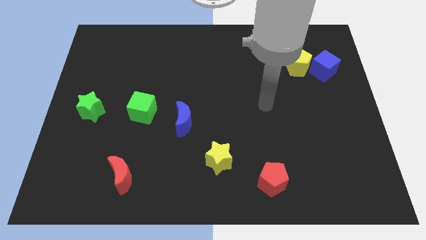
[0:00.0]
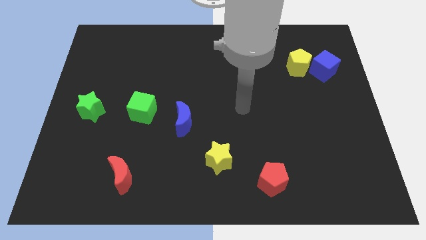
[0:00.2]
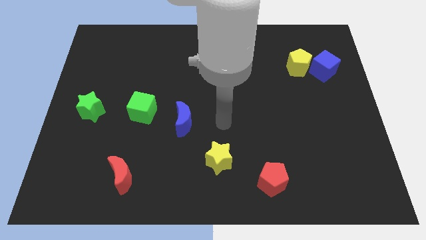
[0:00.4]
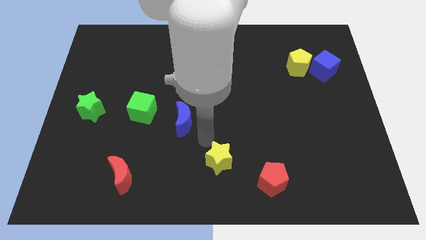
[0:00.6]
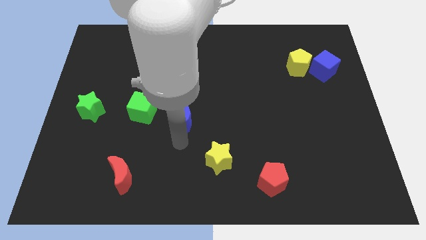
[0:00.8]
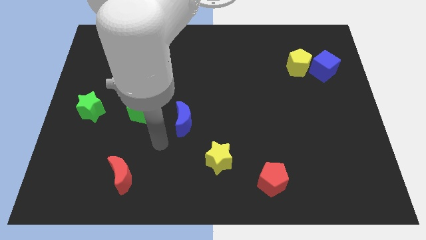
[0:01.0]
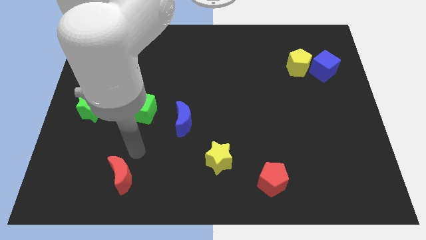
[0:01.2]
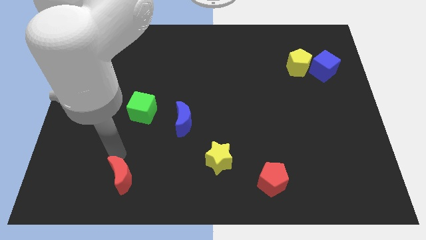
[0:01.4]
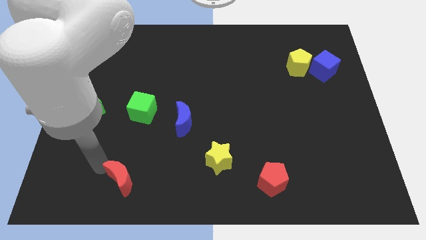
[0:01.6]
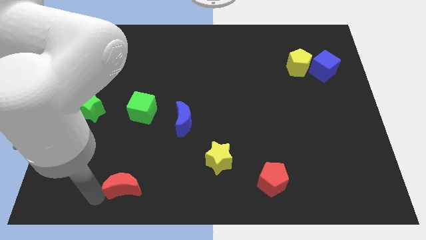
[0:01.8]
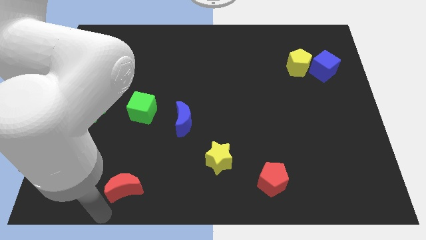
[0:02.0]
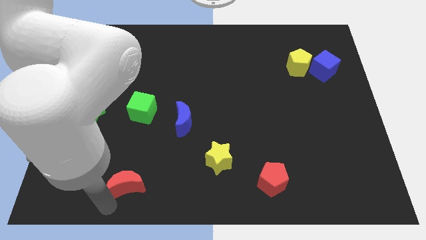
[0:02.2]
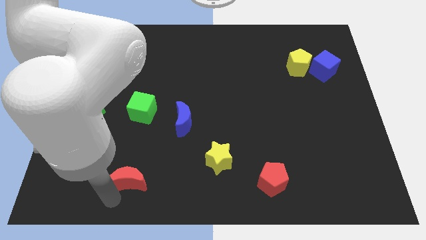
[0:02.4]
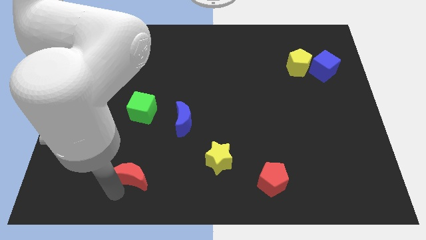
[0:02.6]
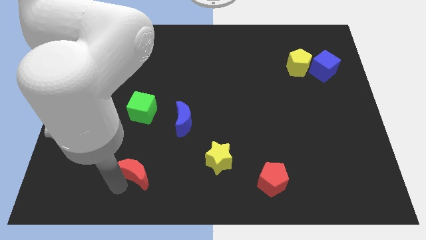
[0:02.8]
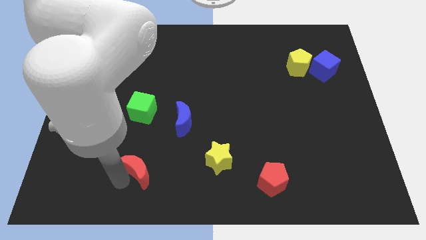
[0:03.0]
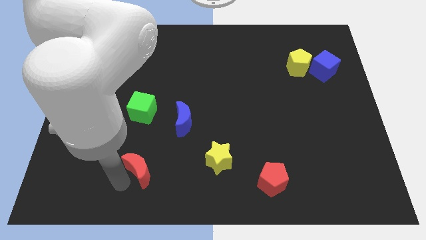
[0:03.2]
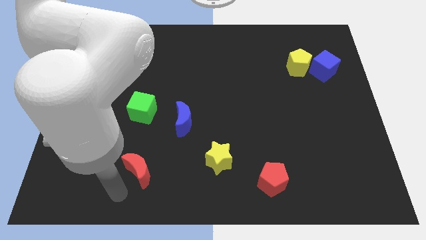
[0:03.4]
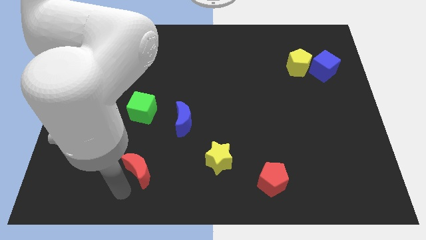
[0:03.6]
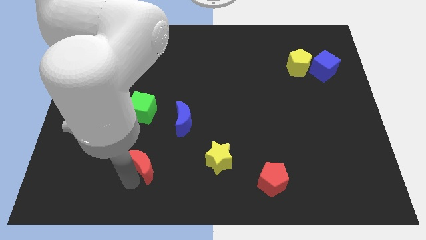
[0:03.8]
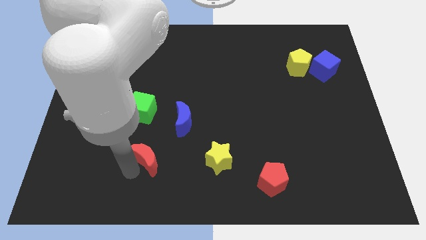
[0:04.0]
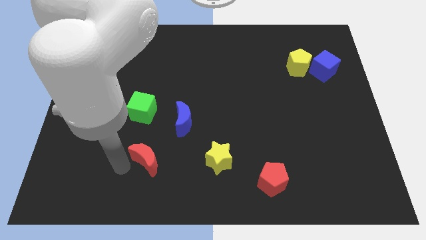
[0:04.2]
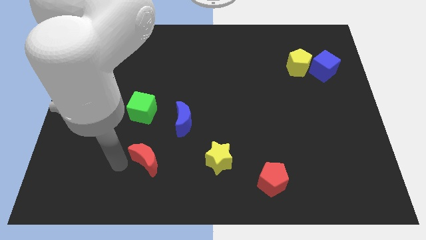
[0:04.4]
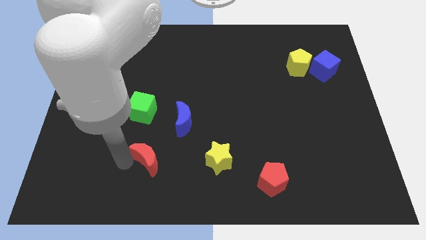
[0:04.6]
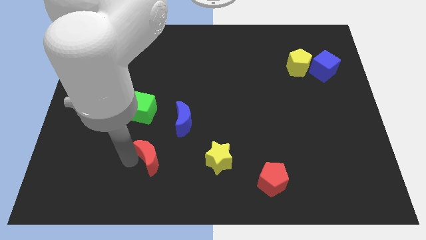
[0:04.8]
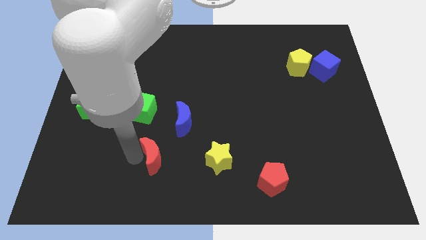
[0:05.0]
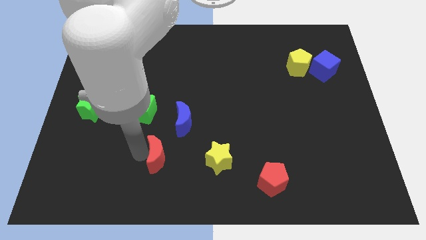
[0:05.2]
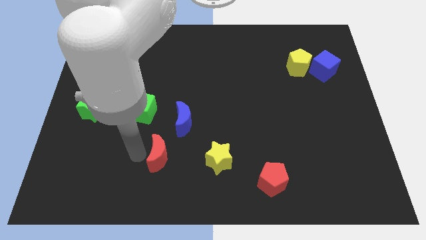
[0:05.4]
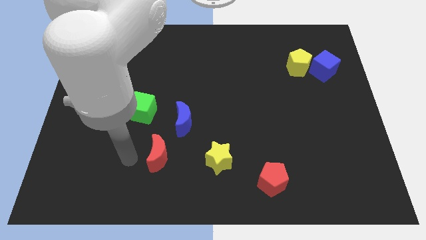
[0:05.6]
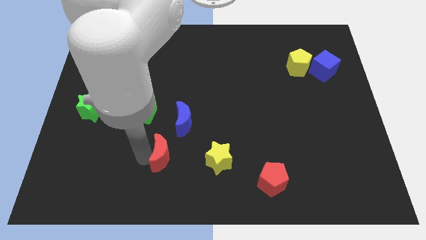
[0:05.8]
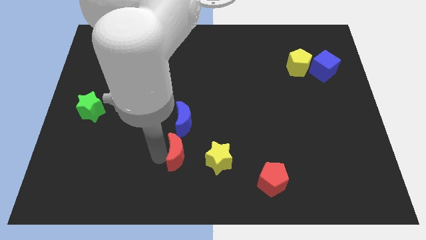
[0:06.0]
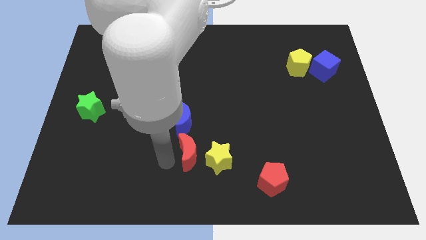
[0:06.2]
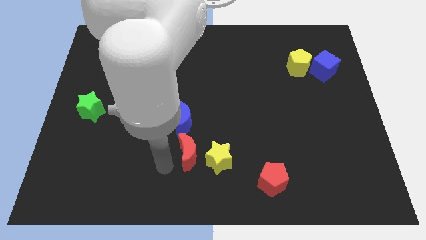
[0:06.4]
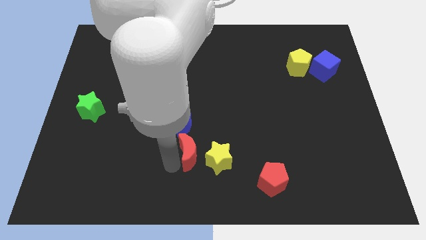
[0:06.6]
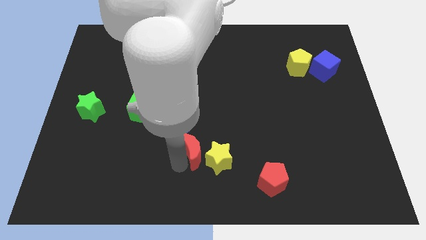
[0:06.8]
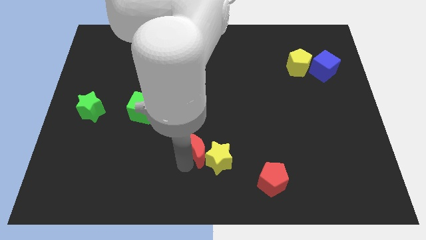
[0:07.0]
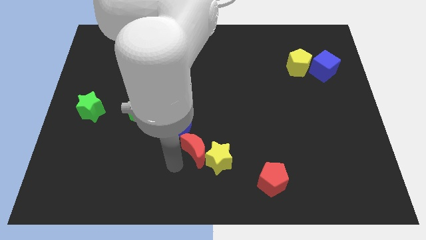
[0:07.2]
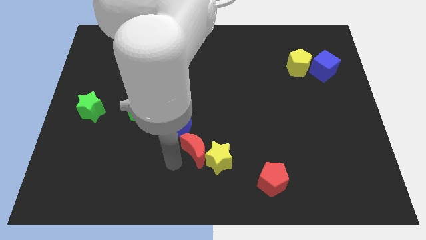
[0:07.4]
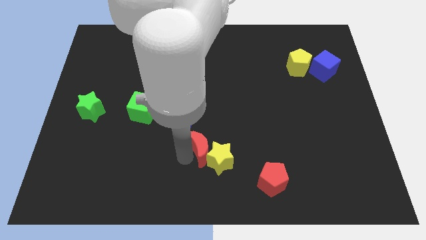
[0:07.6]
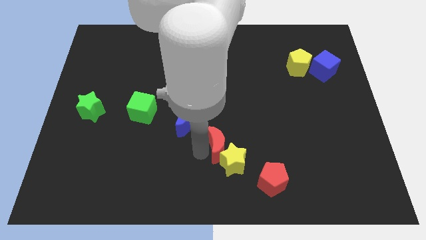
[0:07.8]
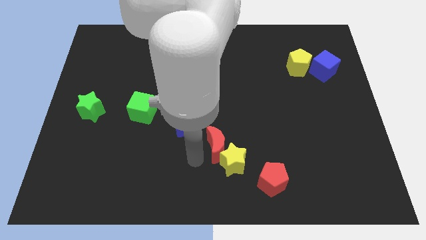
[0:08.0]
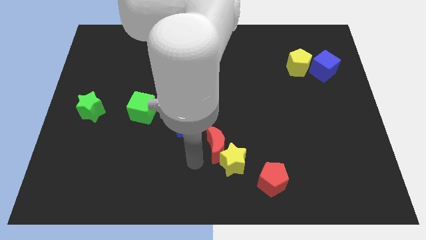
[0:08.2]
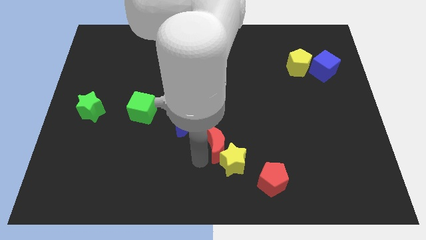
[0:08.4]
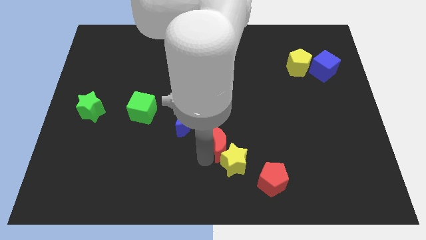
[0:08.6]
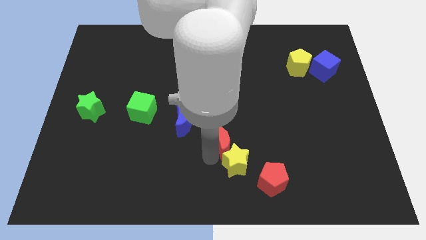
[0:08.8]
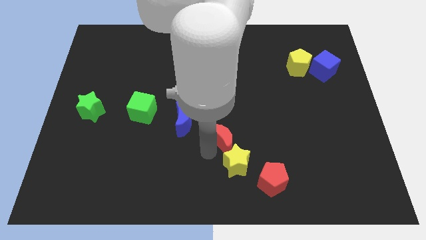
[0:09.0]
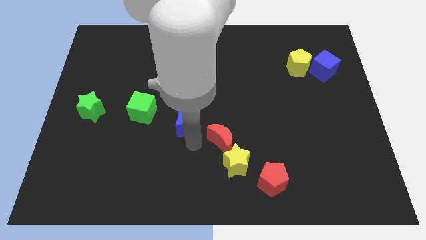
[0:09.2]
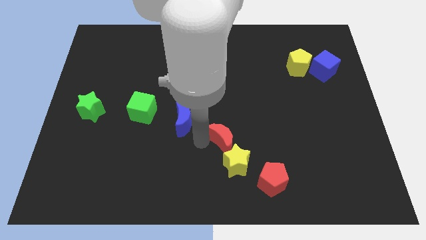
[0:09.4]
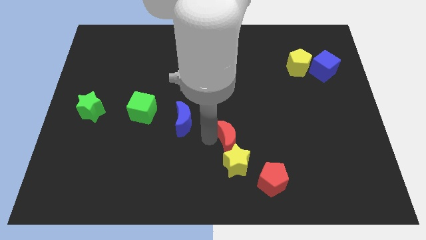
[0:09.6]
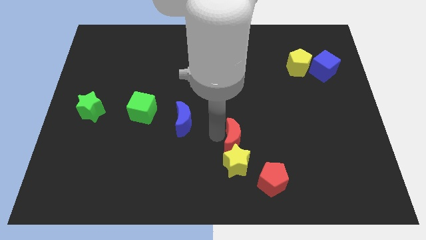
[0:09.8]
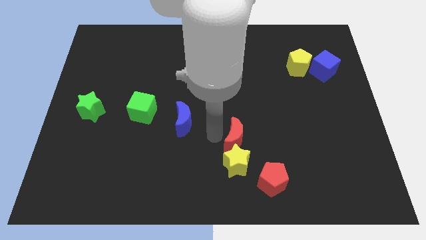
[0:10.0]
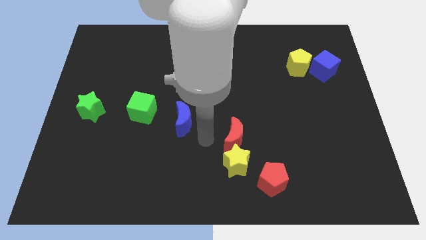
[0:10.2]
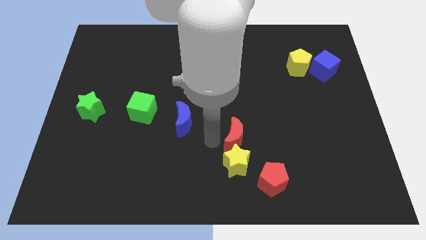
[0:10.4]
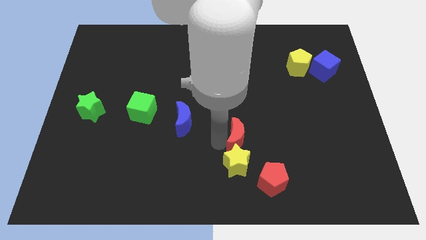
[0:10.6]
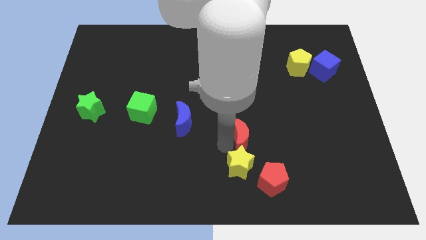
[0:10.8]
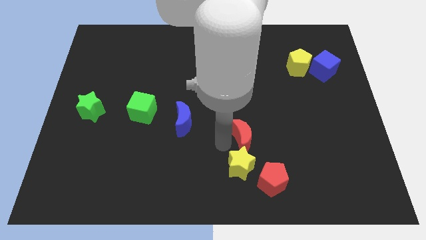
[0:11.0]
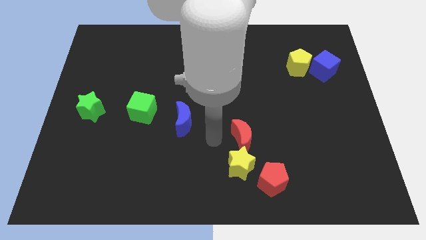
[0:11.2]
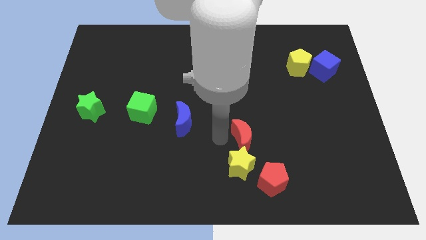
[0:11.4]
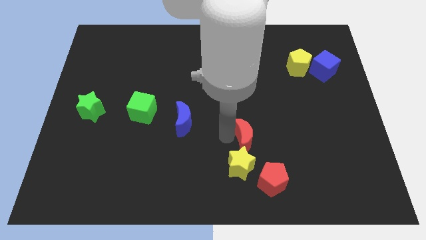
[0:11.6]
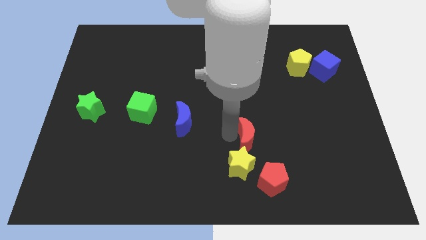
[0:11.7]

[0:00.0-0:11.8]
put the red moon to the top of the red pentagon

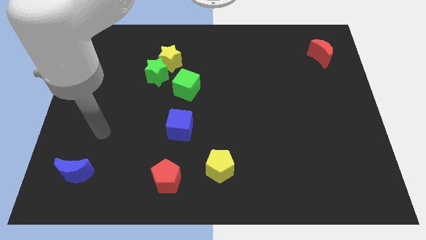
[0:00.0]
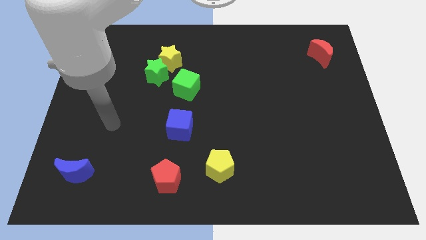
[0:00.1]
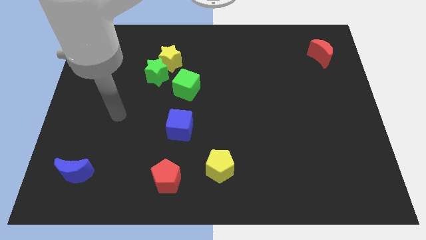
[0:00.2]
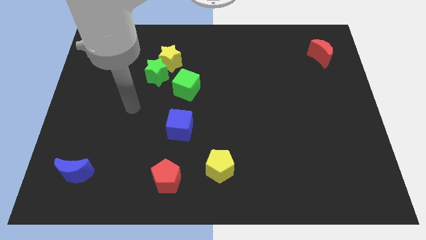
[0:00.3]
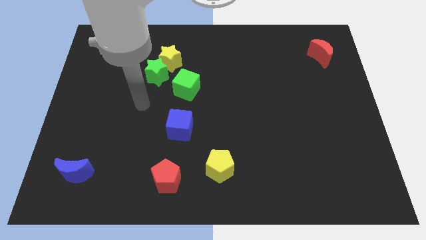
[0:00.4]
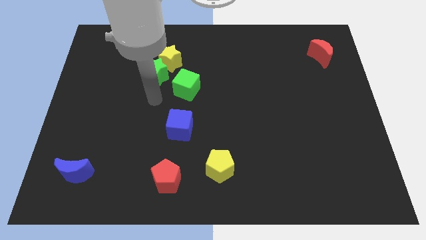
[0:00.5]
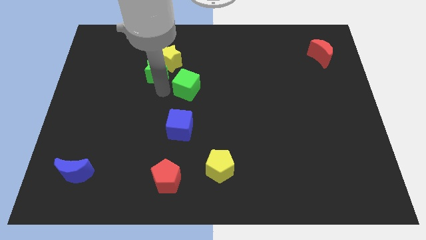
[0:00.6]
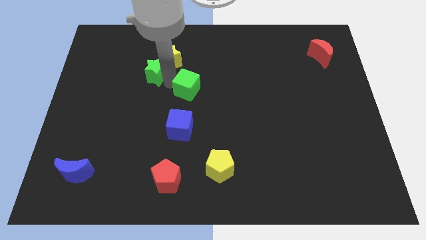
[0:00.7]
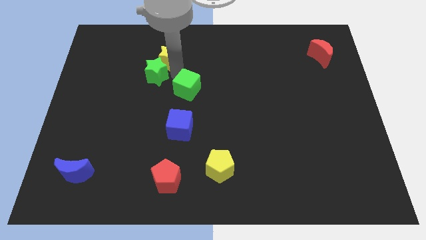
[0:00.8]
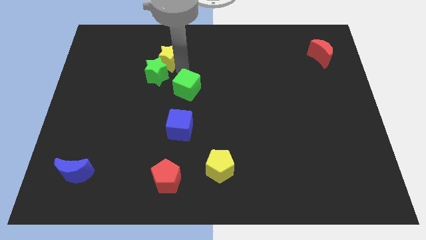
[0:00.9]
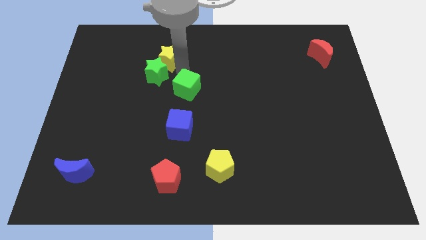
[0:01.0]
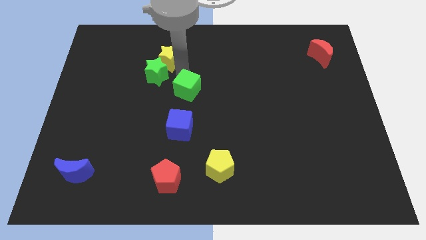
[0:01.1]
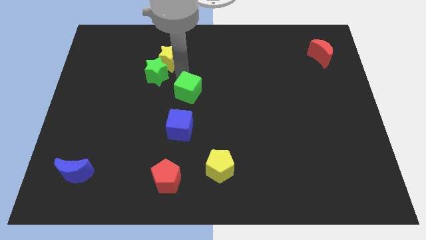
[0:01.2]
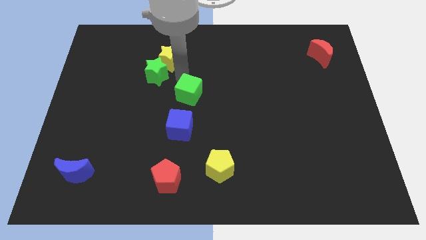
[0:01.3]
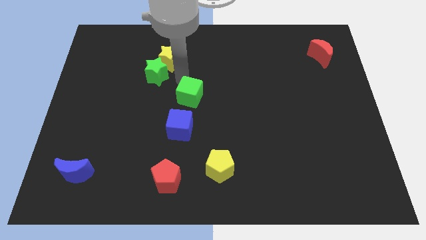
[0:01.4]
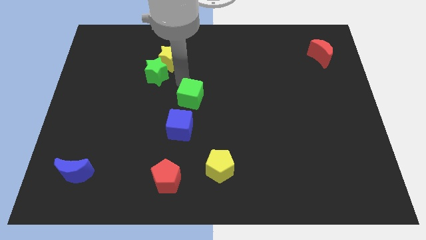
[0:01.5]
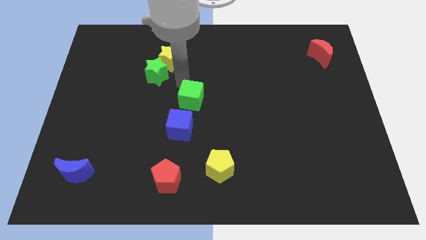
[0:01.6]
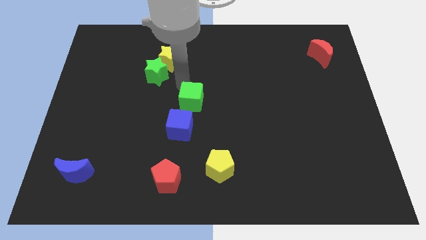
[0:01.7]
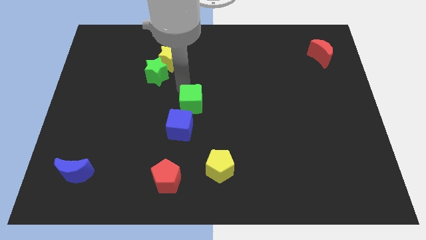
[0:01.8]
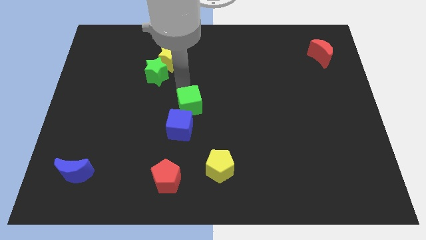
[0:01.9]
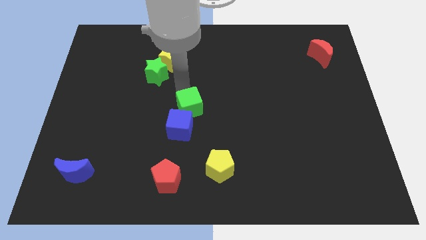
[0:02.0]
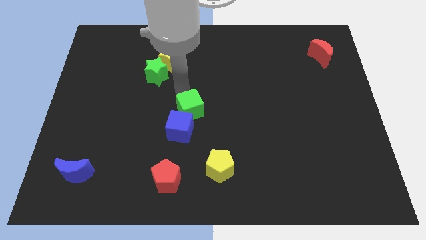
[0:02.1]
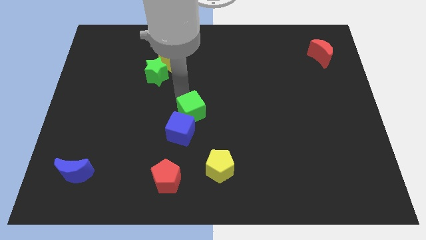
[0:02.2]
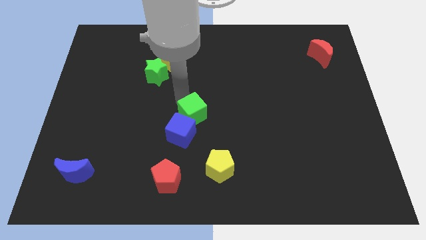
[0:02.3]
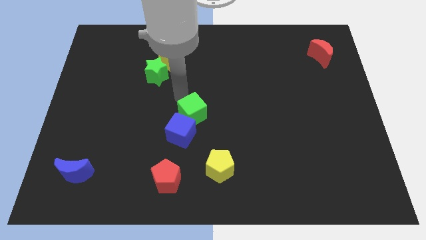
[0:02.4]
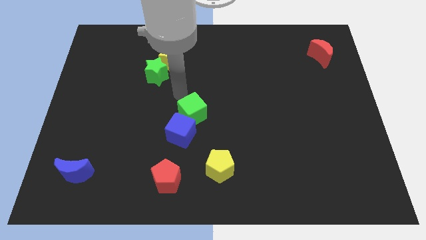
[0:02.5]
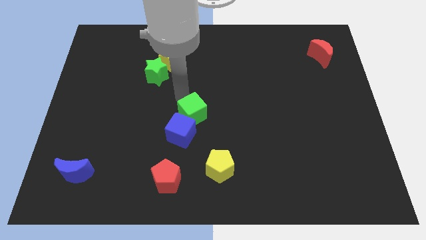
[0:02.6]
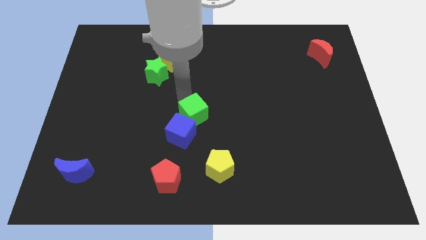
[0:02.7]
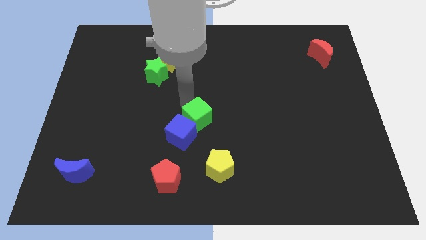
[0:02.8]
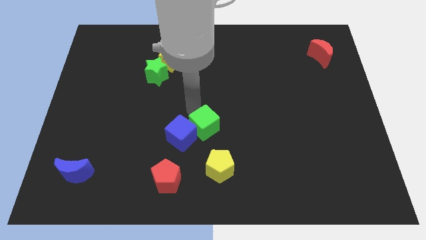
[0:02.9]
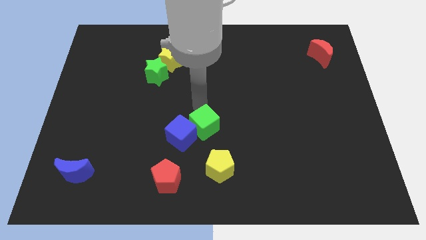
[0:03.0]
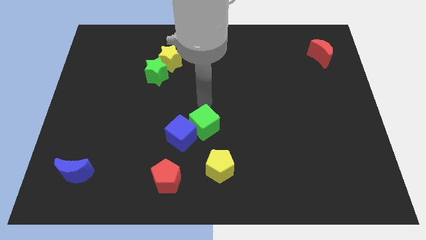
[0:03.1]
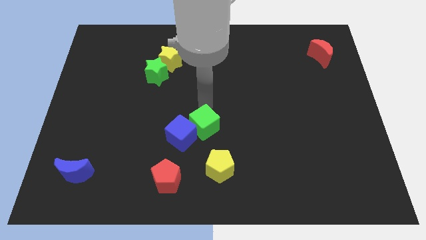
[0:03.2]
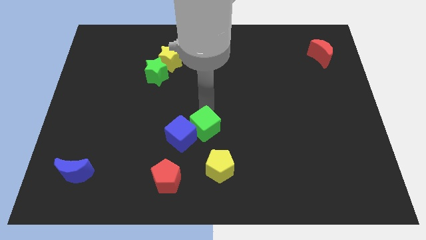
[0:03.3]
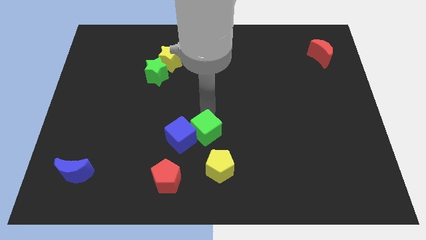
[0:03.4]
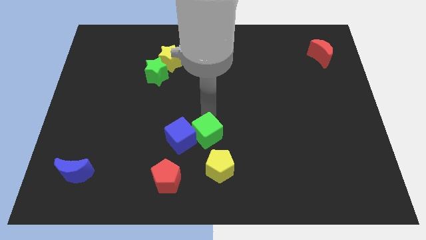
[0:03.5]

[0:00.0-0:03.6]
push the green cube to the bottom right of the blue cube
